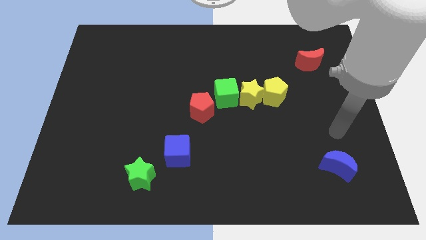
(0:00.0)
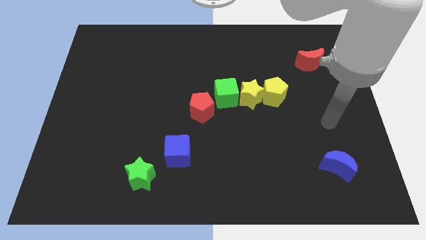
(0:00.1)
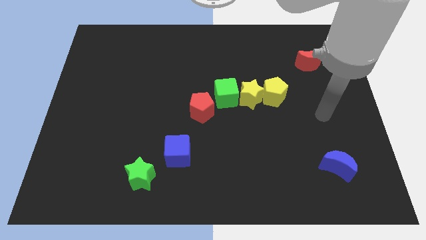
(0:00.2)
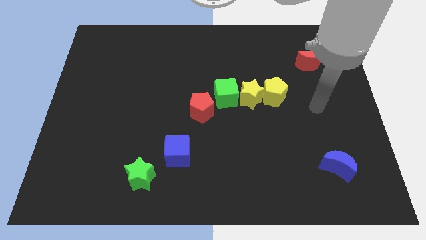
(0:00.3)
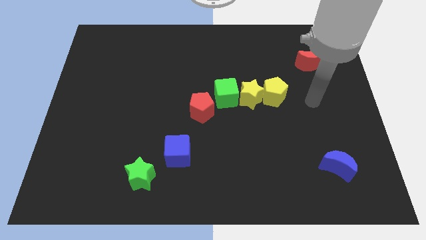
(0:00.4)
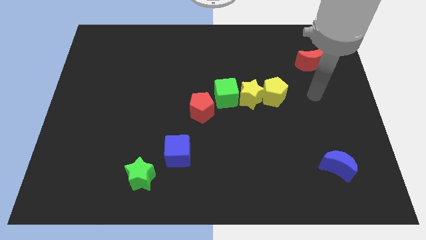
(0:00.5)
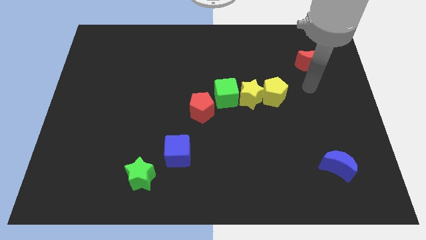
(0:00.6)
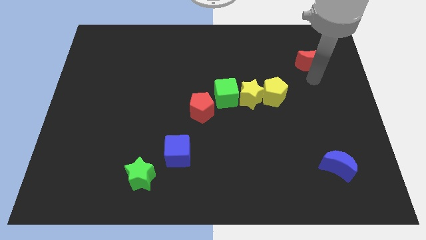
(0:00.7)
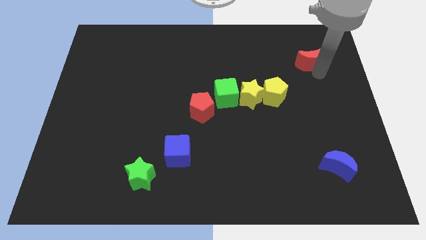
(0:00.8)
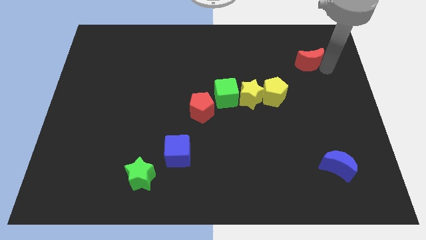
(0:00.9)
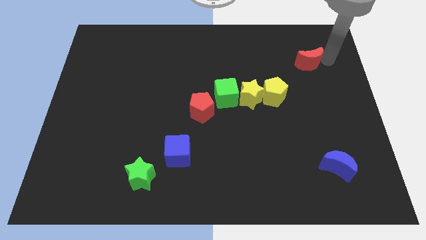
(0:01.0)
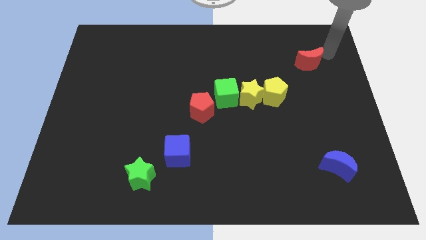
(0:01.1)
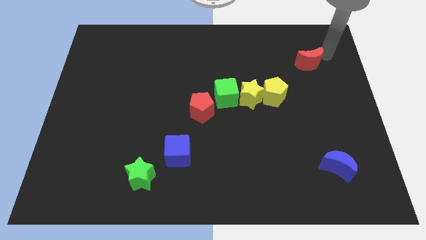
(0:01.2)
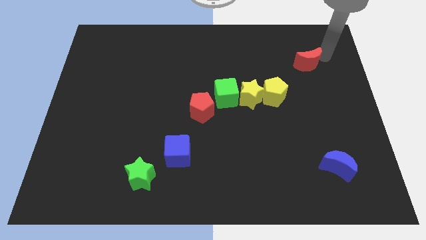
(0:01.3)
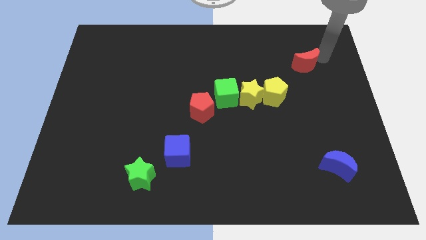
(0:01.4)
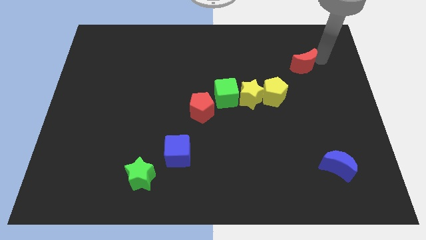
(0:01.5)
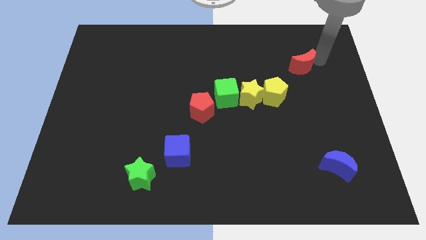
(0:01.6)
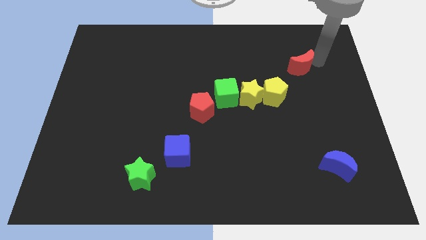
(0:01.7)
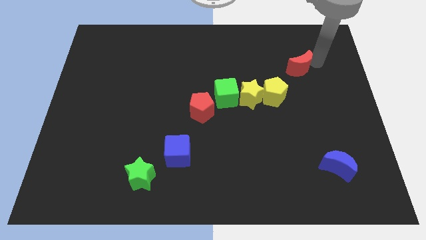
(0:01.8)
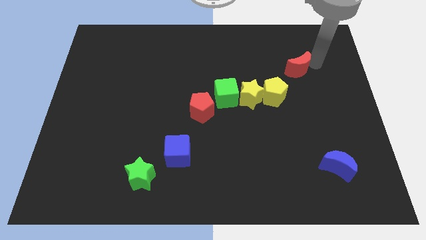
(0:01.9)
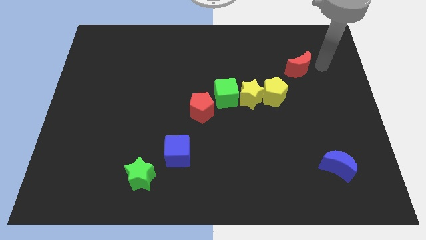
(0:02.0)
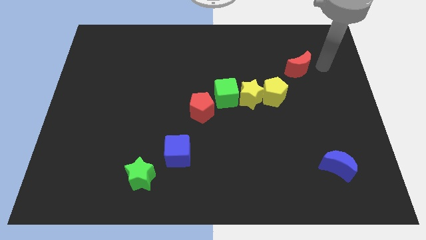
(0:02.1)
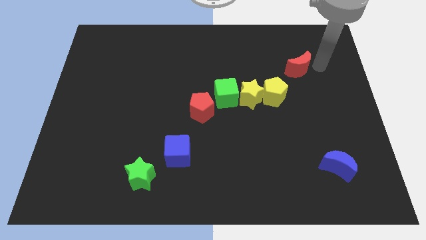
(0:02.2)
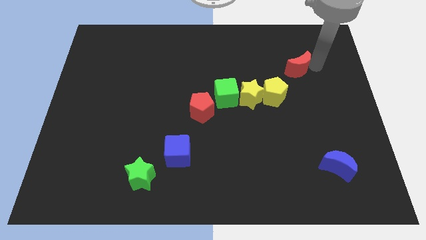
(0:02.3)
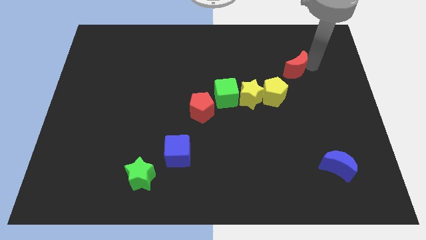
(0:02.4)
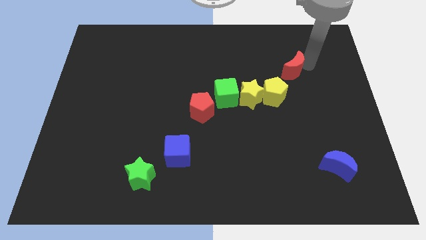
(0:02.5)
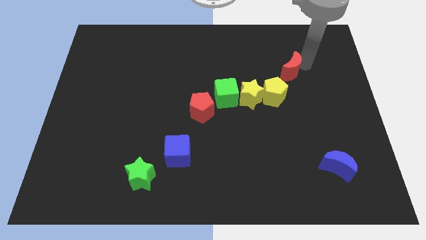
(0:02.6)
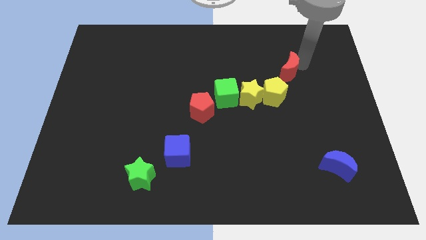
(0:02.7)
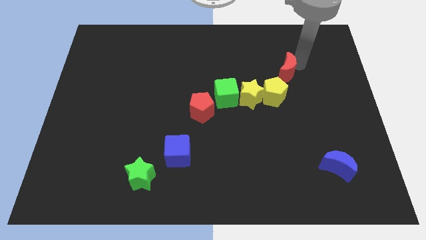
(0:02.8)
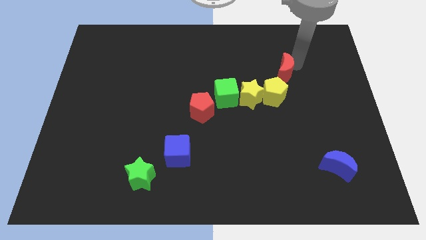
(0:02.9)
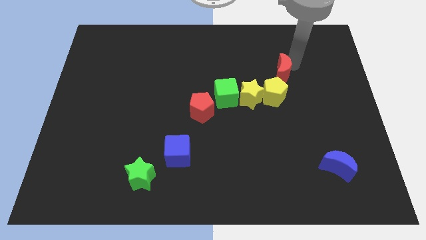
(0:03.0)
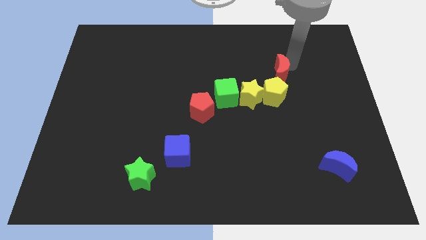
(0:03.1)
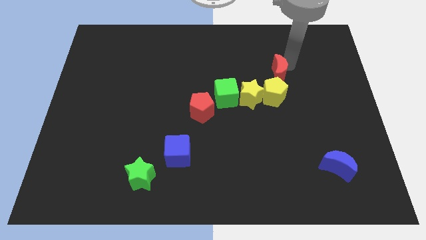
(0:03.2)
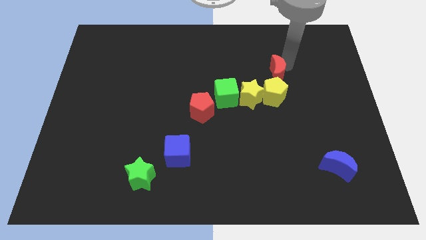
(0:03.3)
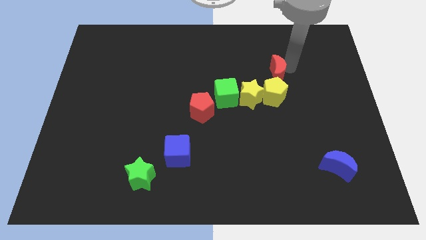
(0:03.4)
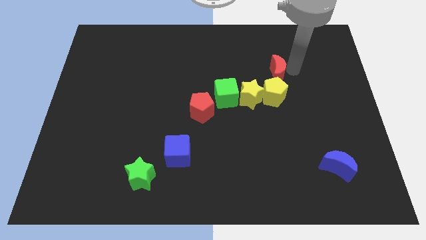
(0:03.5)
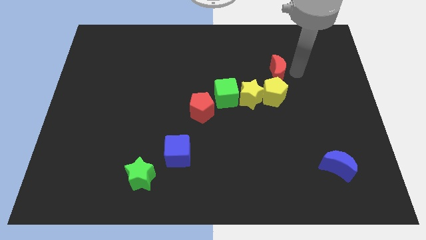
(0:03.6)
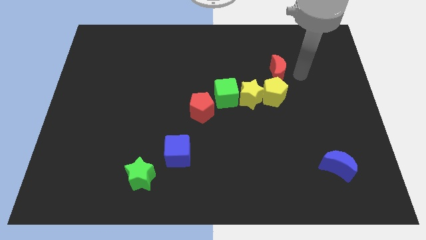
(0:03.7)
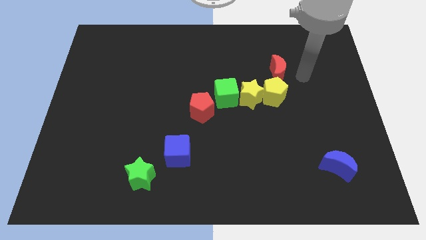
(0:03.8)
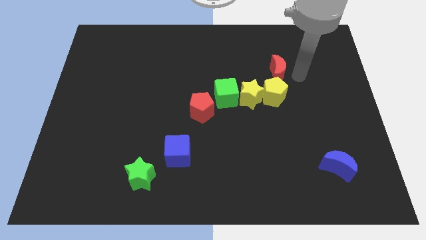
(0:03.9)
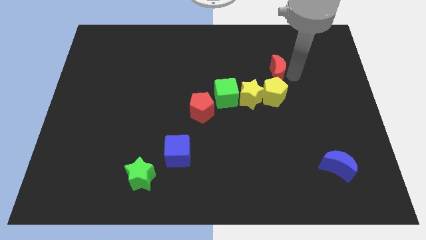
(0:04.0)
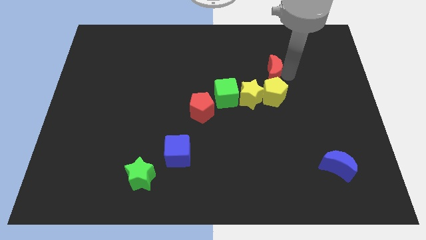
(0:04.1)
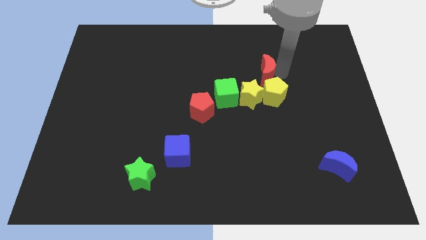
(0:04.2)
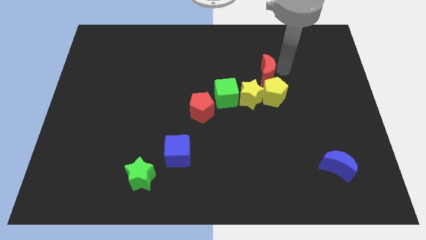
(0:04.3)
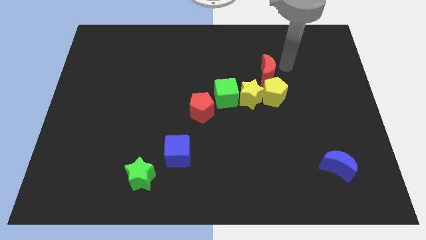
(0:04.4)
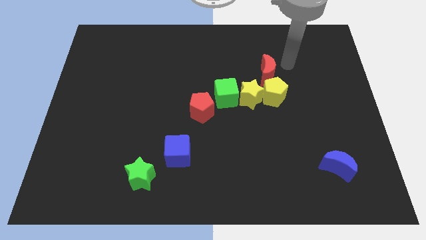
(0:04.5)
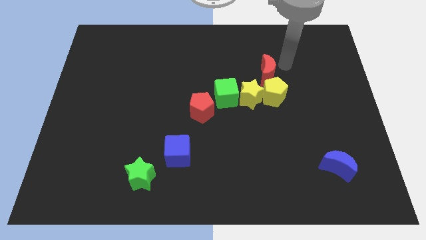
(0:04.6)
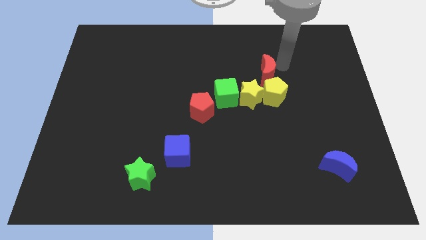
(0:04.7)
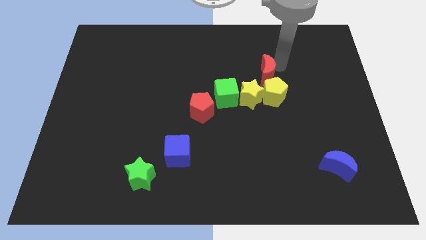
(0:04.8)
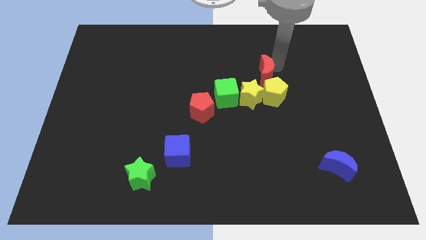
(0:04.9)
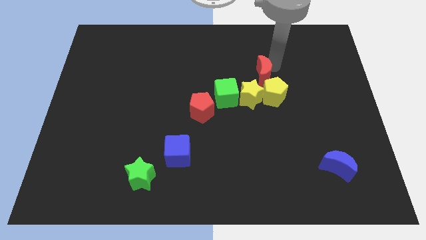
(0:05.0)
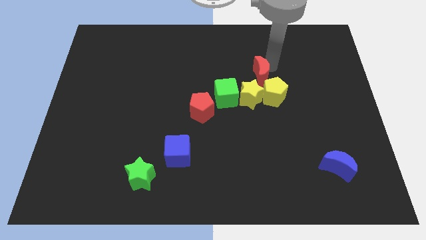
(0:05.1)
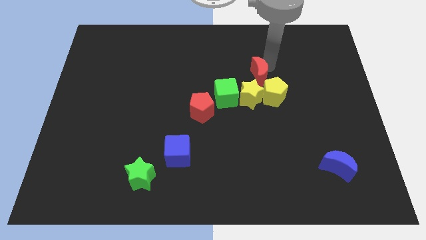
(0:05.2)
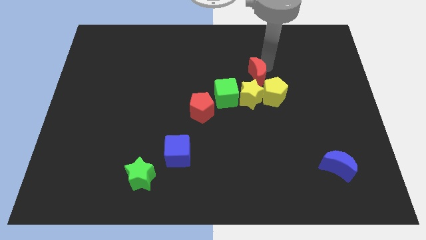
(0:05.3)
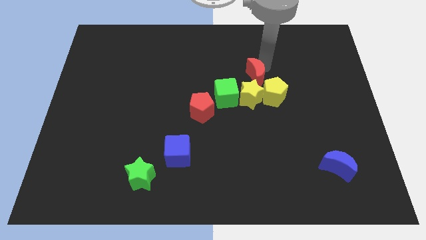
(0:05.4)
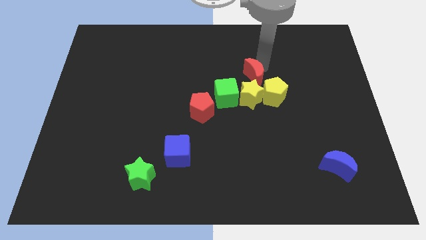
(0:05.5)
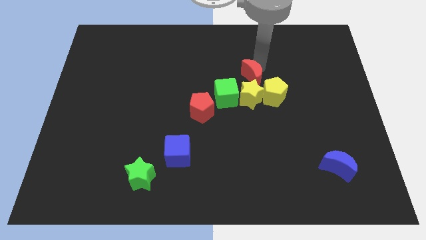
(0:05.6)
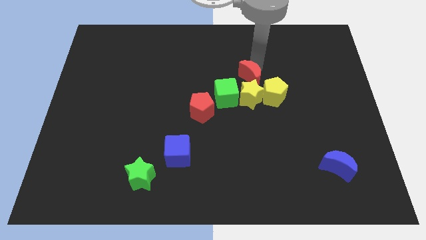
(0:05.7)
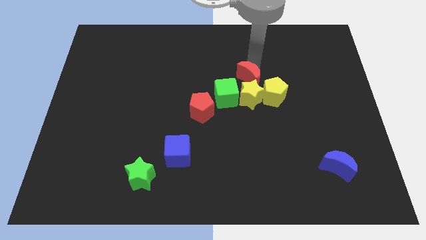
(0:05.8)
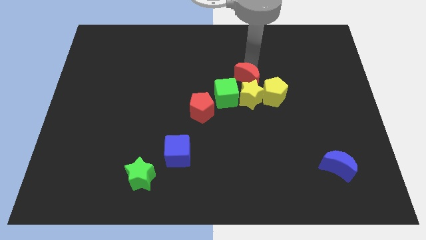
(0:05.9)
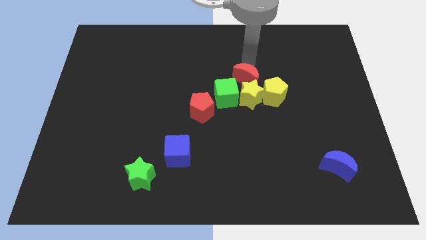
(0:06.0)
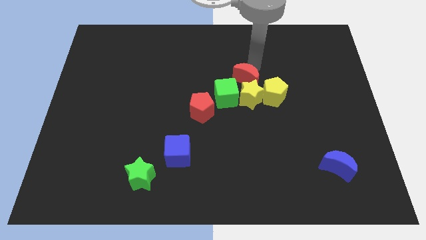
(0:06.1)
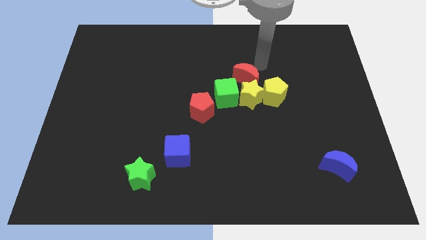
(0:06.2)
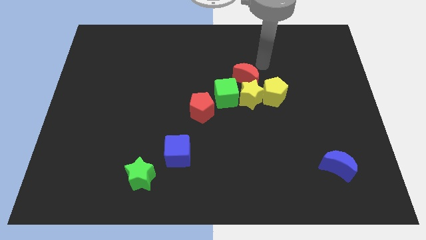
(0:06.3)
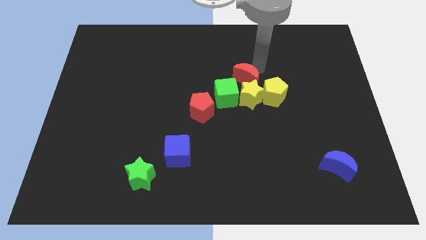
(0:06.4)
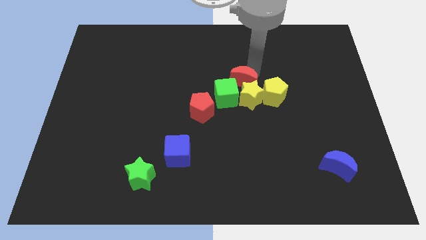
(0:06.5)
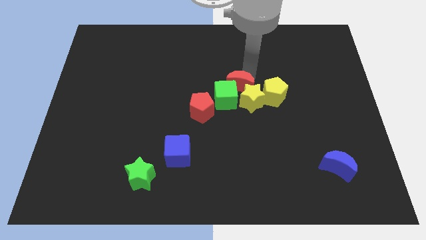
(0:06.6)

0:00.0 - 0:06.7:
move the red moon to the green cube
